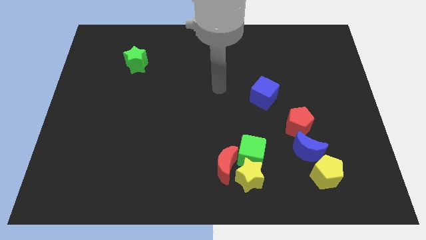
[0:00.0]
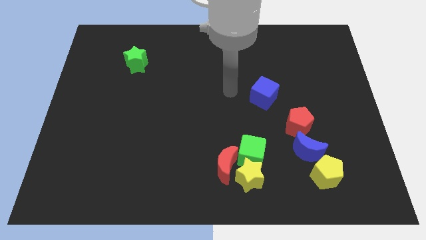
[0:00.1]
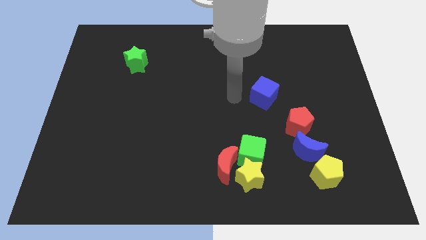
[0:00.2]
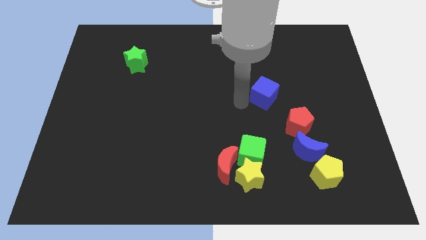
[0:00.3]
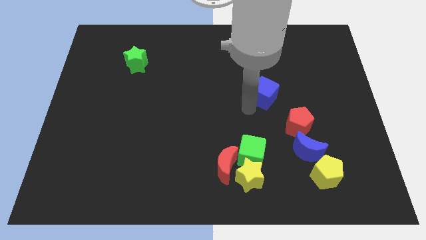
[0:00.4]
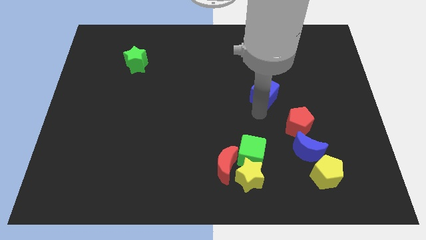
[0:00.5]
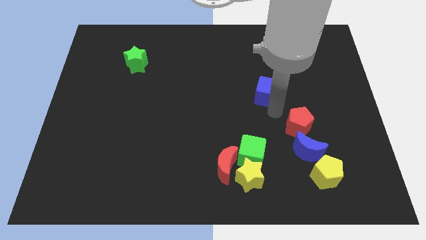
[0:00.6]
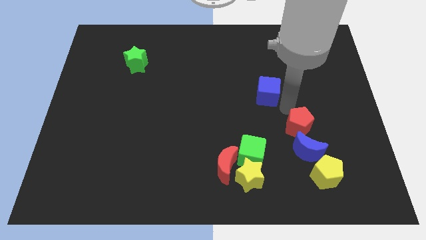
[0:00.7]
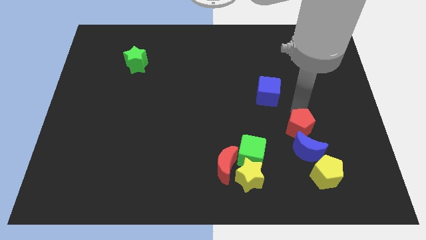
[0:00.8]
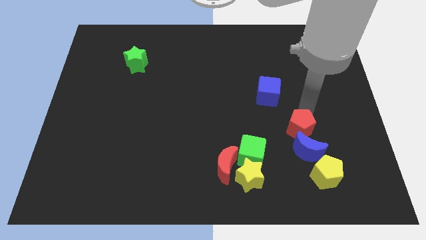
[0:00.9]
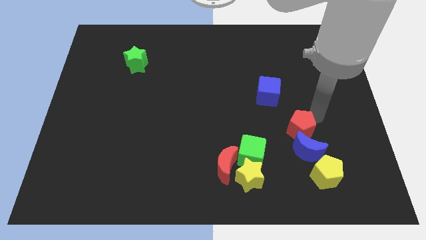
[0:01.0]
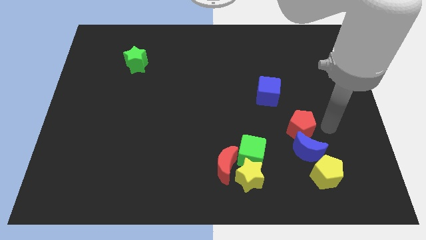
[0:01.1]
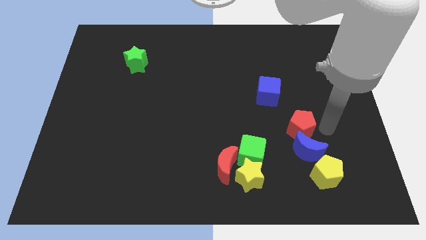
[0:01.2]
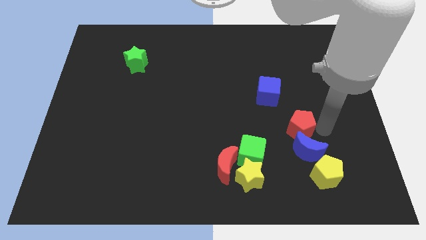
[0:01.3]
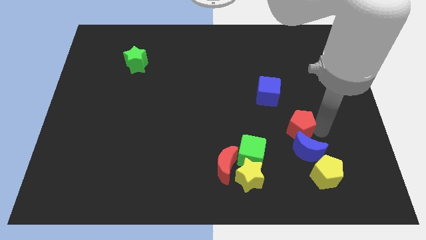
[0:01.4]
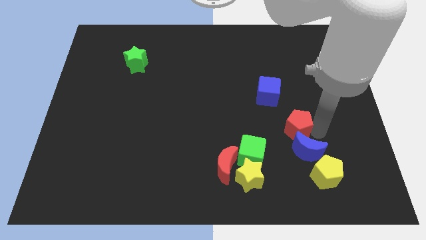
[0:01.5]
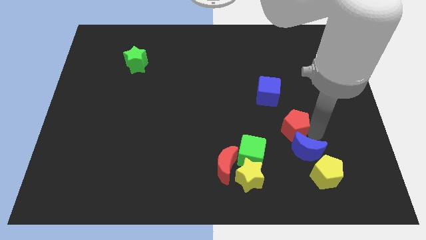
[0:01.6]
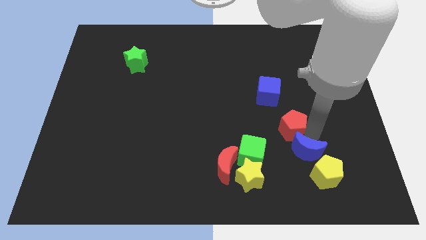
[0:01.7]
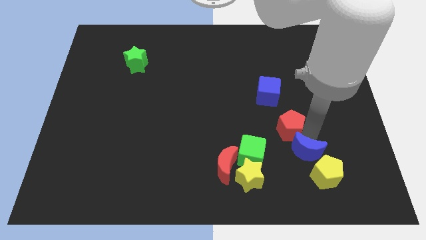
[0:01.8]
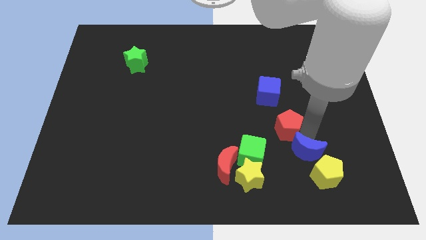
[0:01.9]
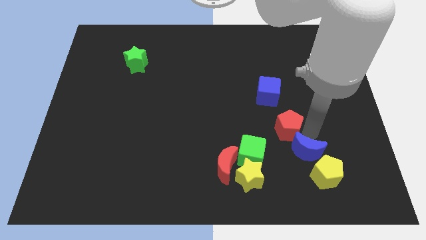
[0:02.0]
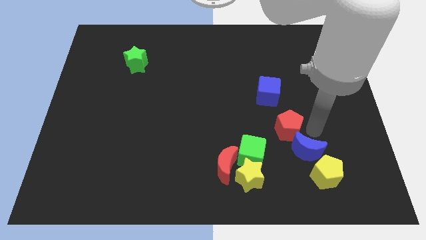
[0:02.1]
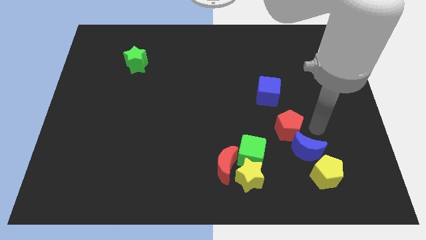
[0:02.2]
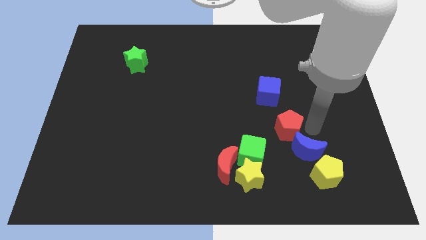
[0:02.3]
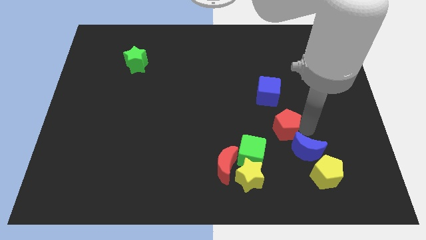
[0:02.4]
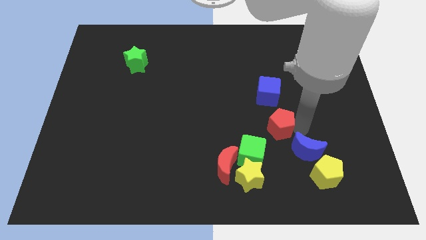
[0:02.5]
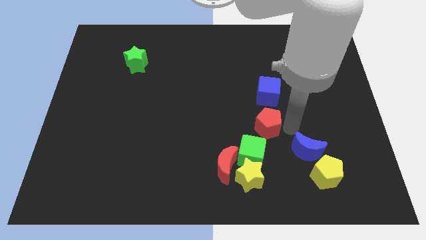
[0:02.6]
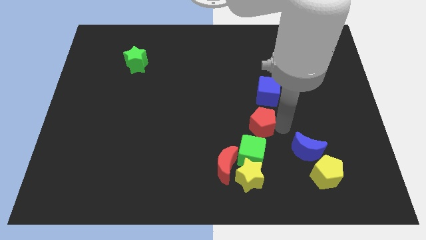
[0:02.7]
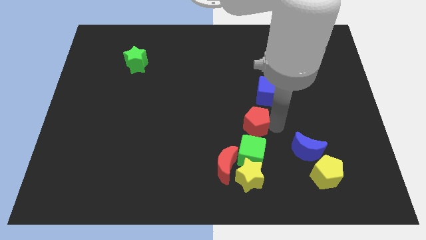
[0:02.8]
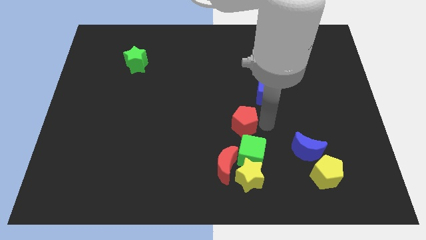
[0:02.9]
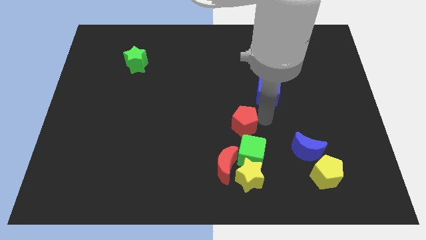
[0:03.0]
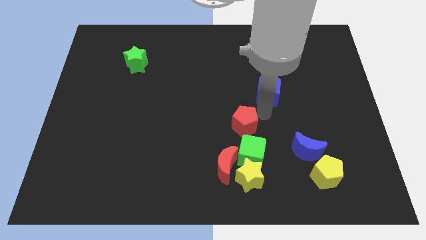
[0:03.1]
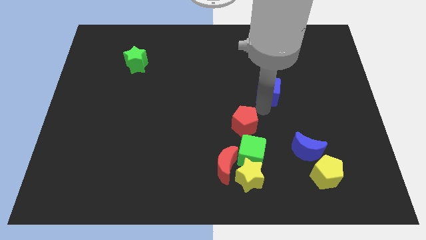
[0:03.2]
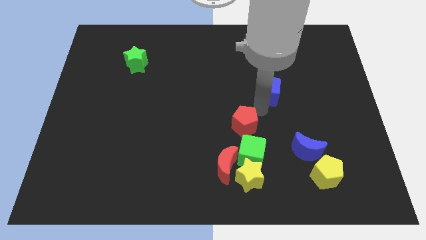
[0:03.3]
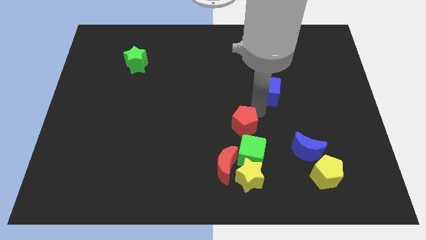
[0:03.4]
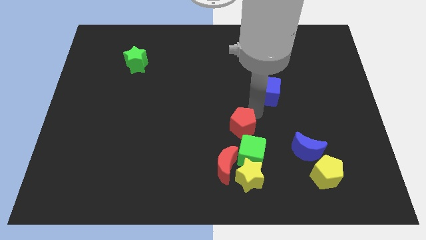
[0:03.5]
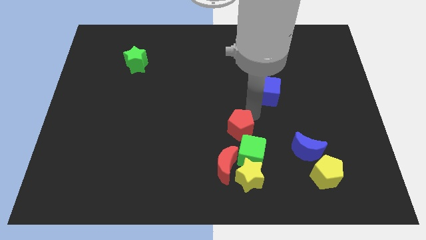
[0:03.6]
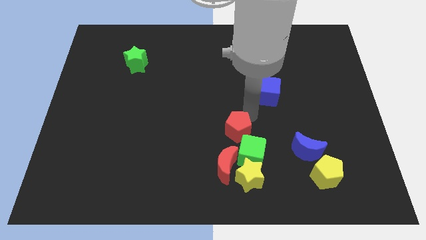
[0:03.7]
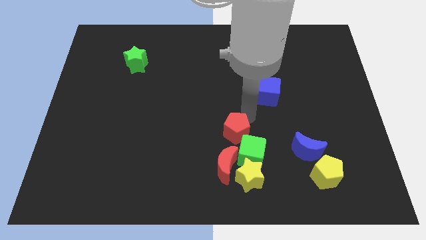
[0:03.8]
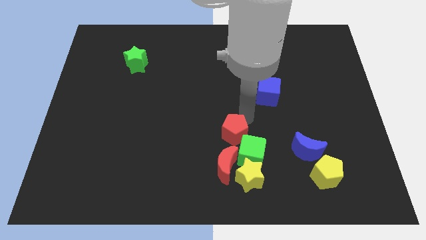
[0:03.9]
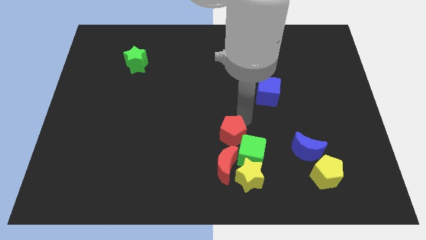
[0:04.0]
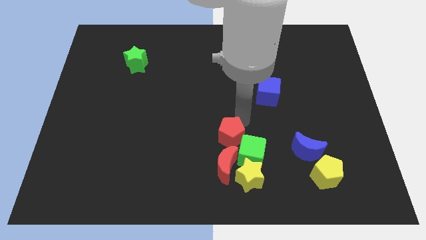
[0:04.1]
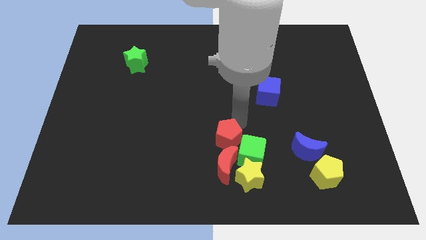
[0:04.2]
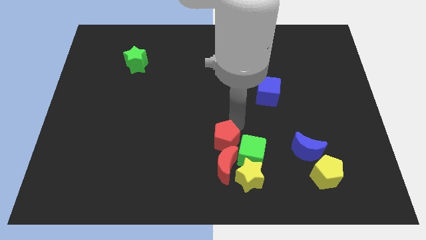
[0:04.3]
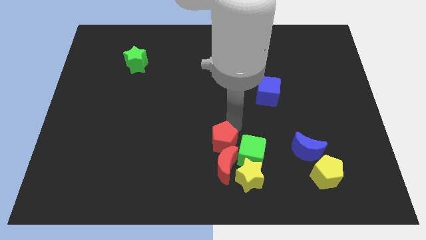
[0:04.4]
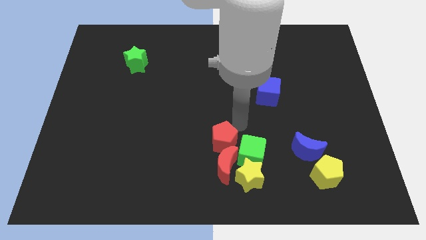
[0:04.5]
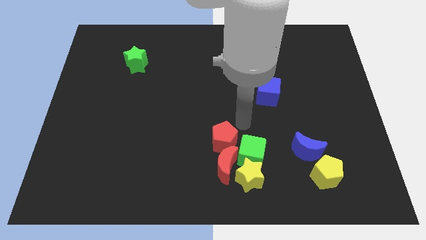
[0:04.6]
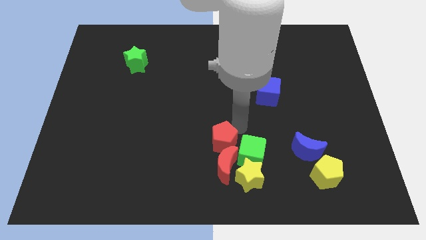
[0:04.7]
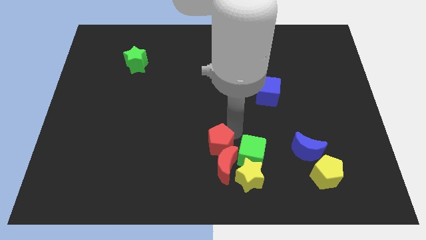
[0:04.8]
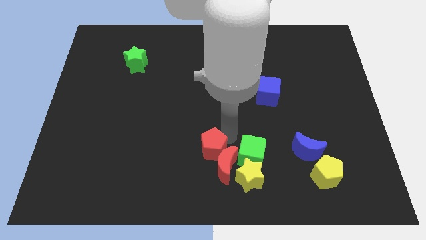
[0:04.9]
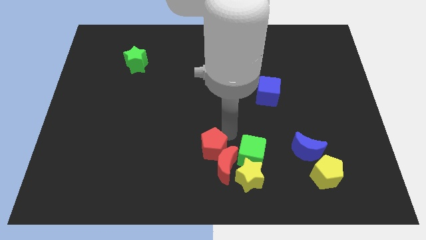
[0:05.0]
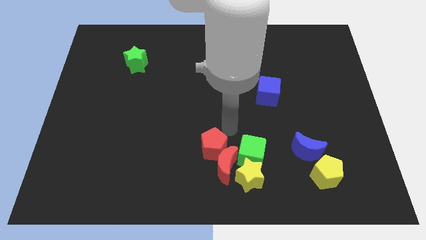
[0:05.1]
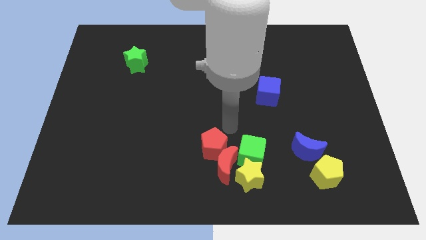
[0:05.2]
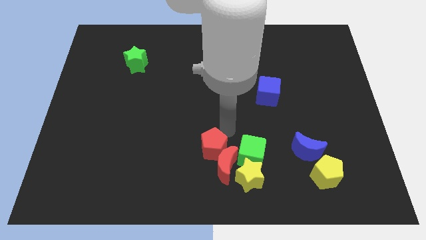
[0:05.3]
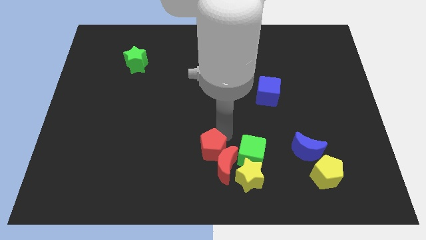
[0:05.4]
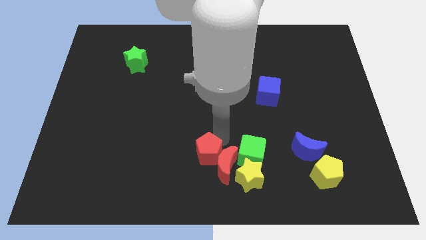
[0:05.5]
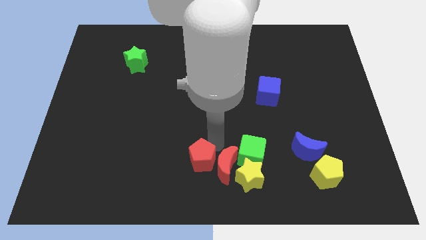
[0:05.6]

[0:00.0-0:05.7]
slide the red pentagon left of the yellow star

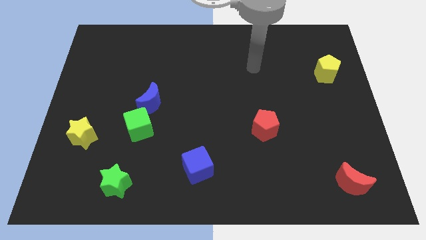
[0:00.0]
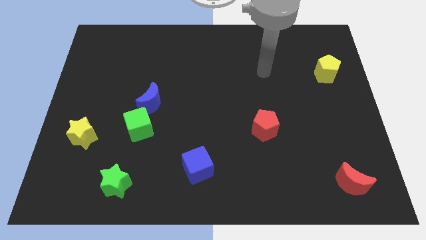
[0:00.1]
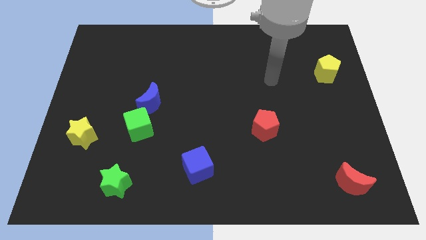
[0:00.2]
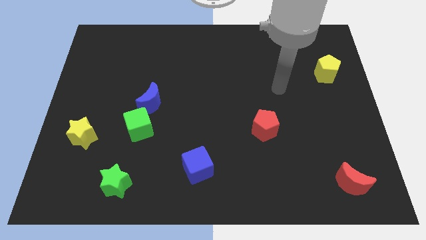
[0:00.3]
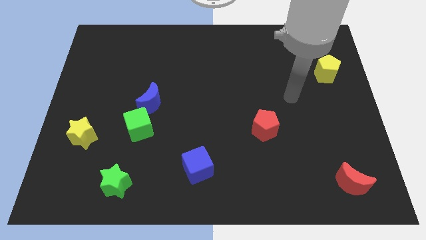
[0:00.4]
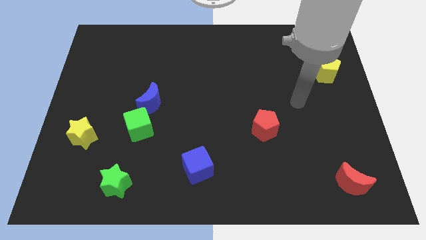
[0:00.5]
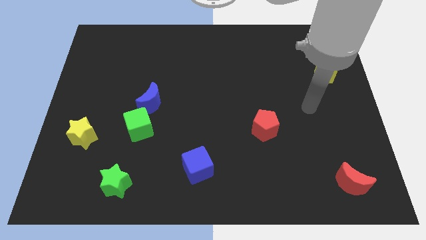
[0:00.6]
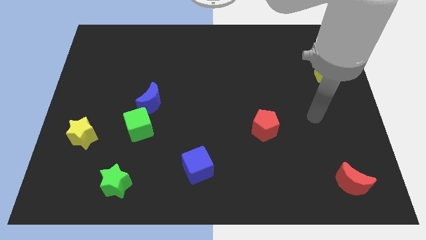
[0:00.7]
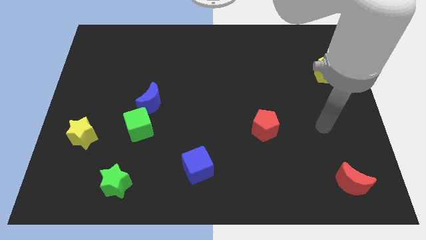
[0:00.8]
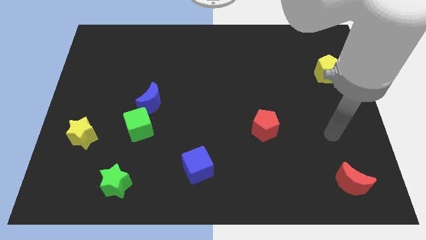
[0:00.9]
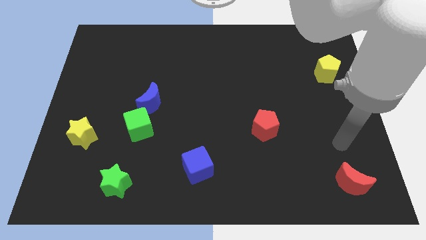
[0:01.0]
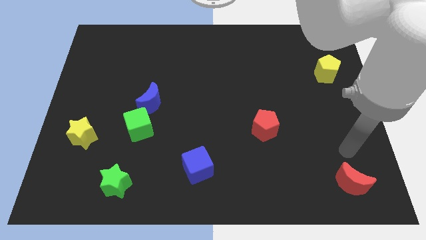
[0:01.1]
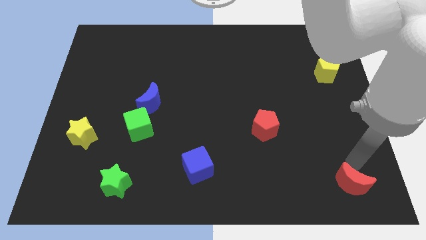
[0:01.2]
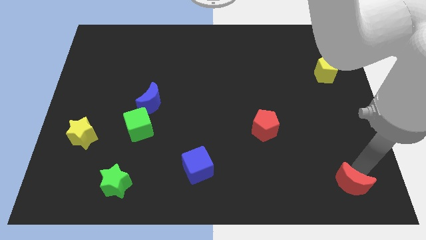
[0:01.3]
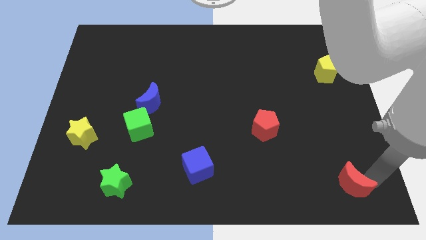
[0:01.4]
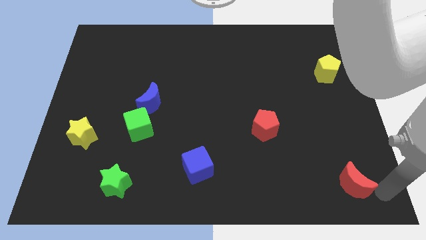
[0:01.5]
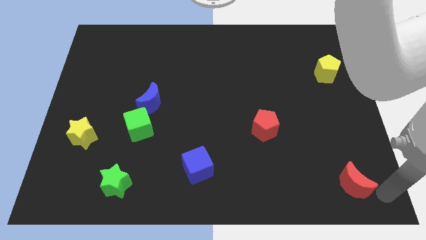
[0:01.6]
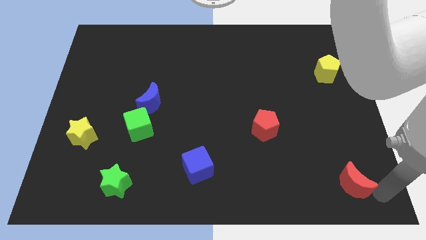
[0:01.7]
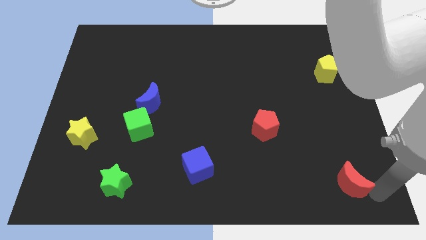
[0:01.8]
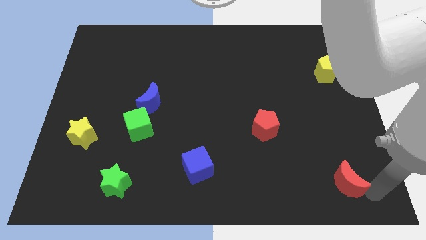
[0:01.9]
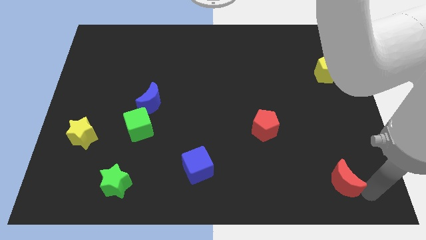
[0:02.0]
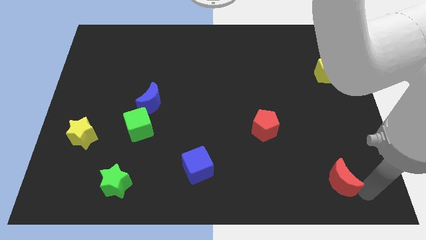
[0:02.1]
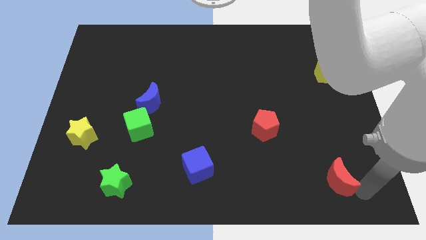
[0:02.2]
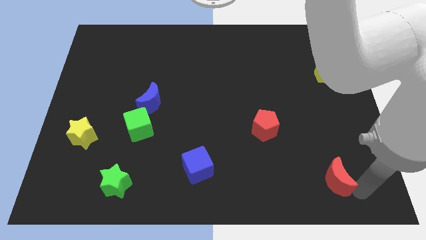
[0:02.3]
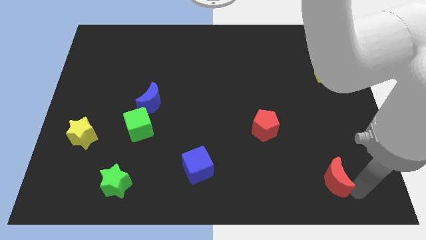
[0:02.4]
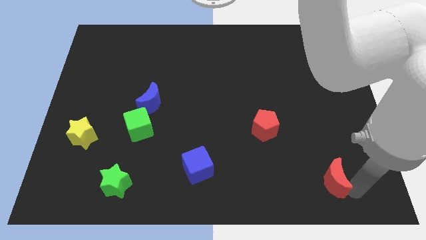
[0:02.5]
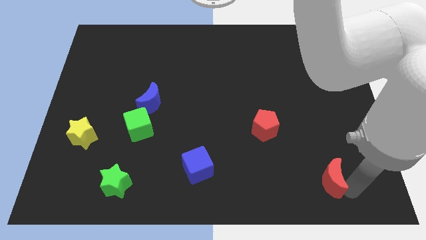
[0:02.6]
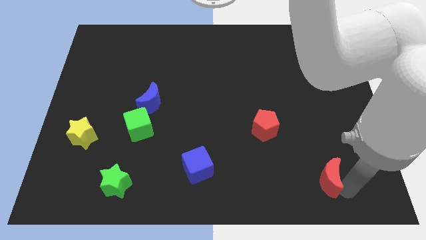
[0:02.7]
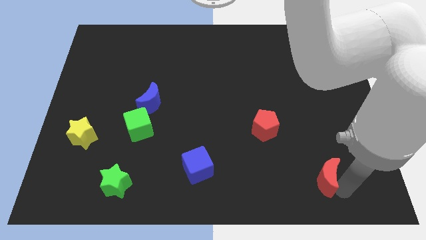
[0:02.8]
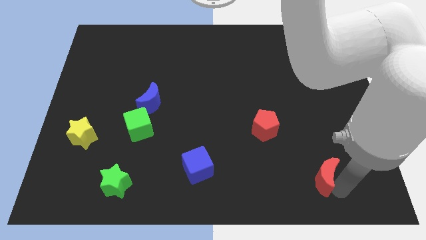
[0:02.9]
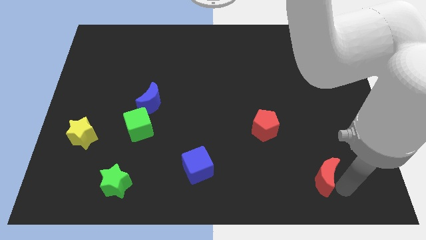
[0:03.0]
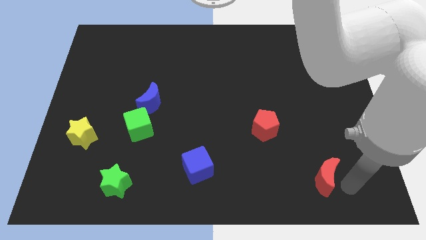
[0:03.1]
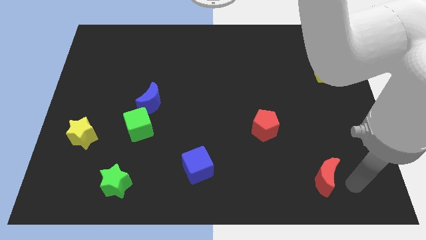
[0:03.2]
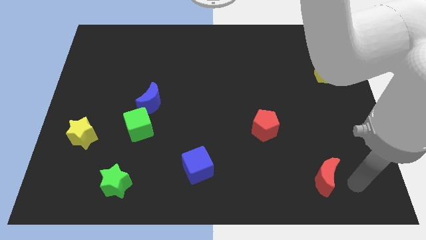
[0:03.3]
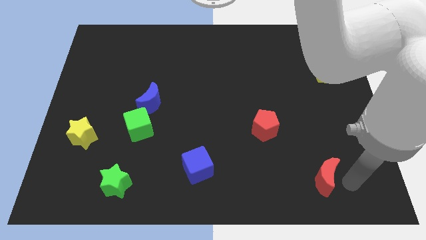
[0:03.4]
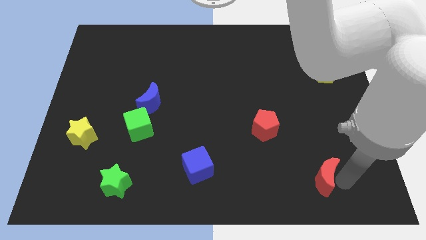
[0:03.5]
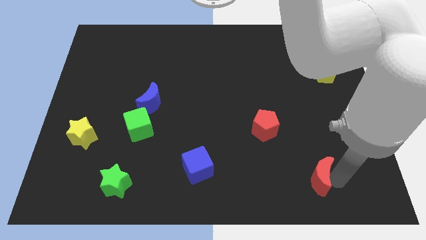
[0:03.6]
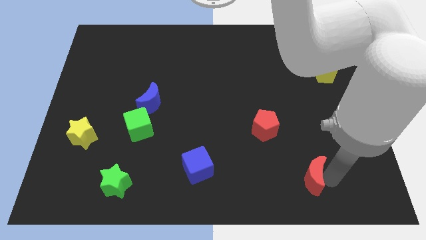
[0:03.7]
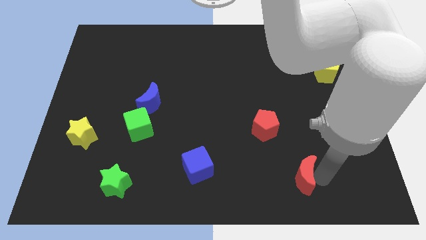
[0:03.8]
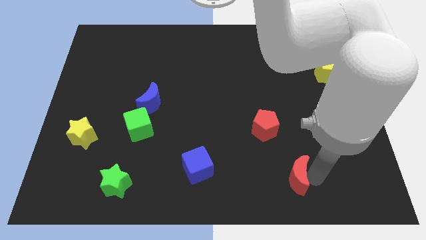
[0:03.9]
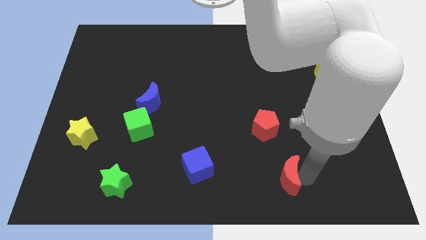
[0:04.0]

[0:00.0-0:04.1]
slide the red moon below the red pentagon
